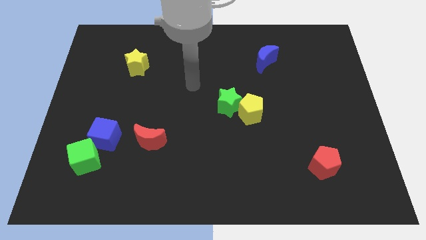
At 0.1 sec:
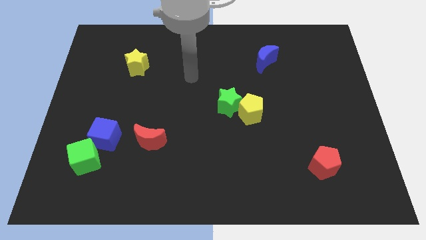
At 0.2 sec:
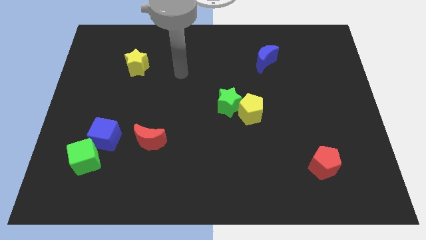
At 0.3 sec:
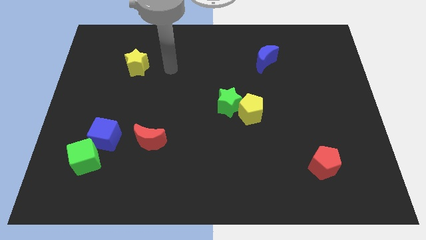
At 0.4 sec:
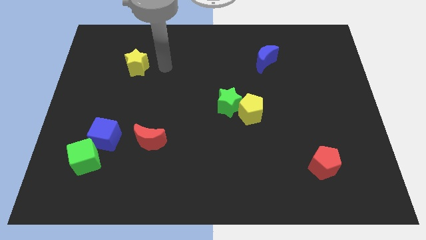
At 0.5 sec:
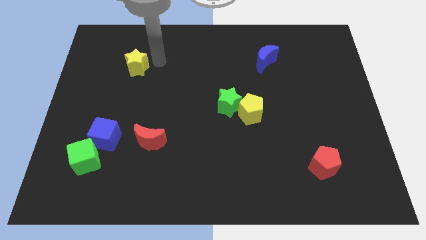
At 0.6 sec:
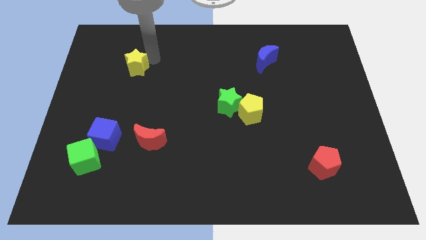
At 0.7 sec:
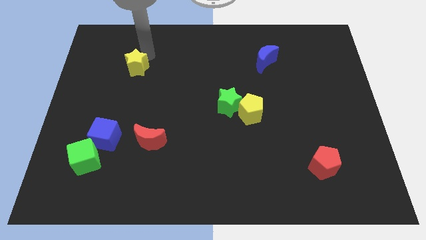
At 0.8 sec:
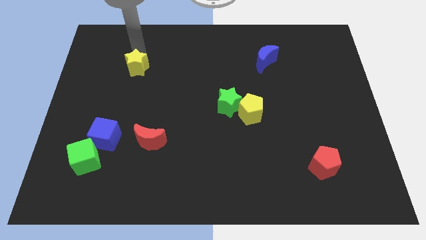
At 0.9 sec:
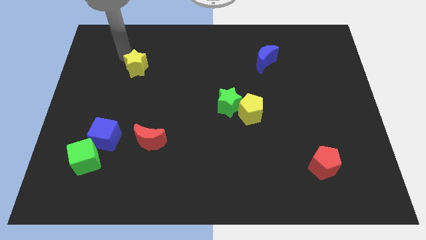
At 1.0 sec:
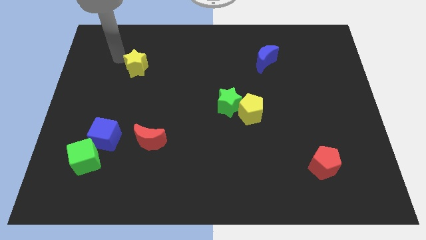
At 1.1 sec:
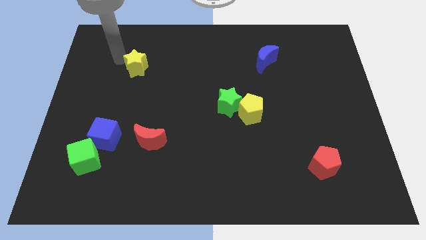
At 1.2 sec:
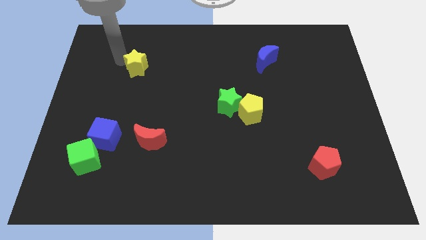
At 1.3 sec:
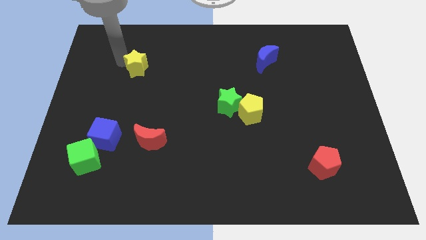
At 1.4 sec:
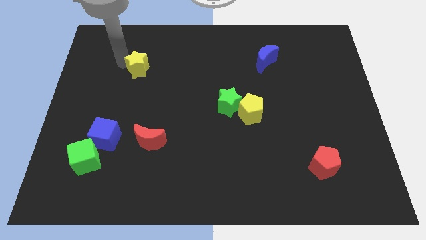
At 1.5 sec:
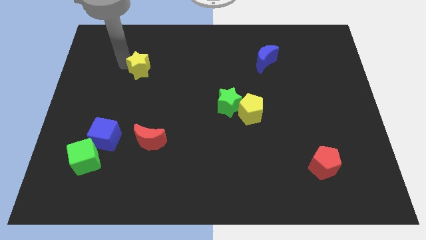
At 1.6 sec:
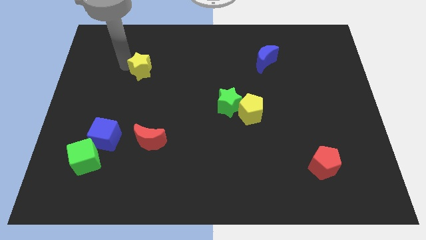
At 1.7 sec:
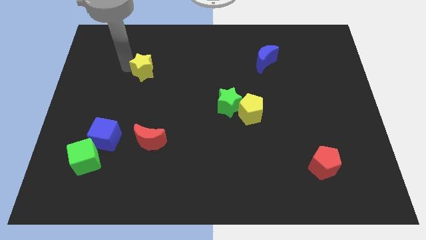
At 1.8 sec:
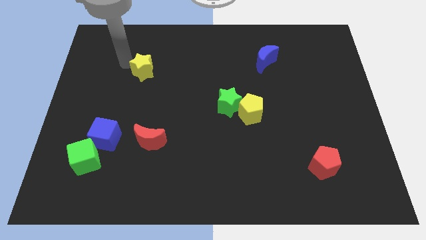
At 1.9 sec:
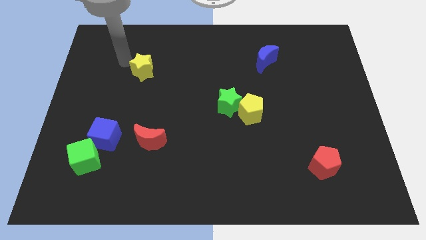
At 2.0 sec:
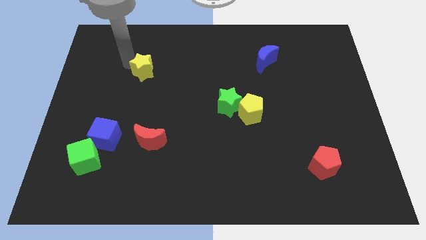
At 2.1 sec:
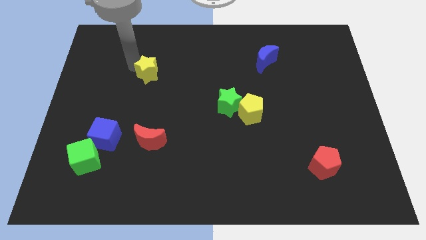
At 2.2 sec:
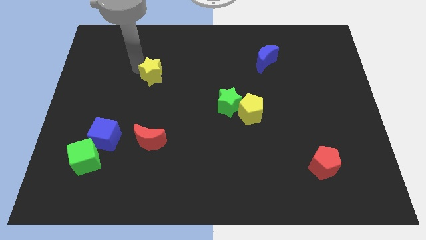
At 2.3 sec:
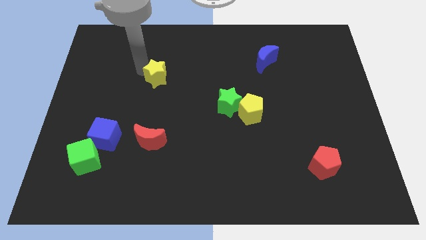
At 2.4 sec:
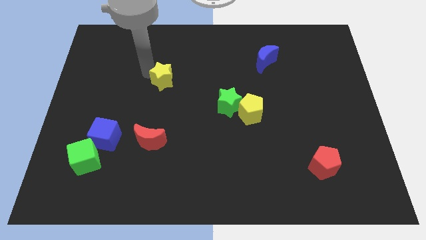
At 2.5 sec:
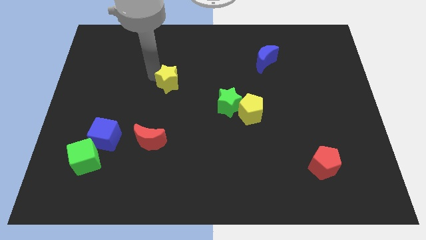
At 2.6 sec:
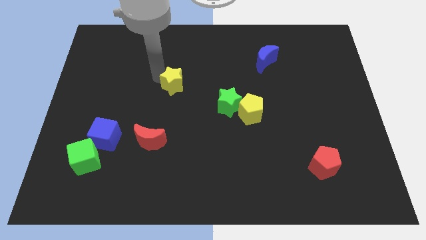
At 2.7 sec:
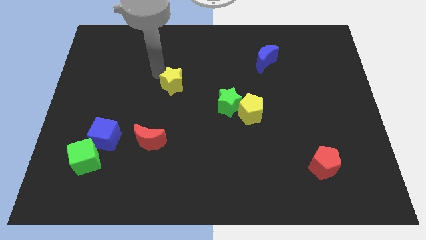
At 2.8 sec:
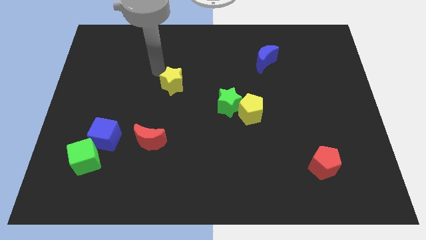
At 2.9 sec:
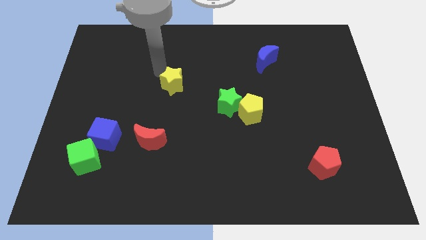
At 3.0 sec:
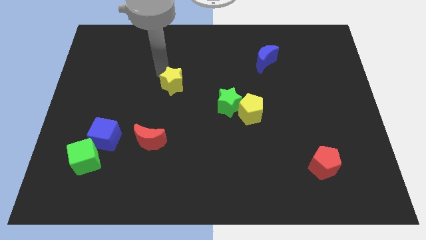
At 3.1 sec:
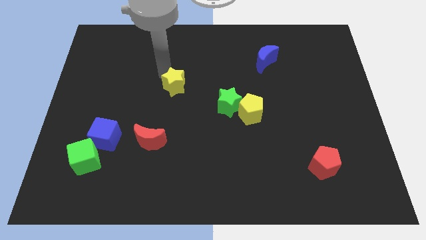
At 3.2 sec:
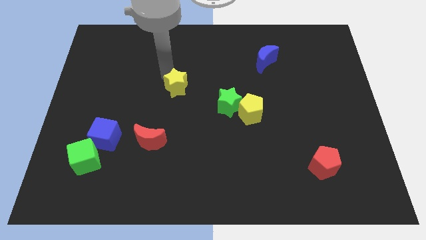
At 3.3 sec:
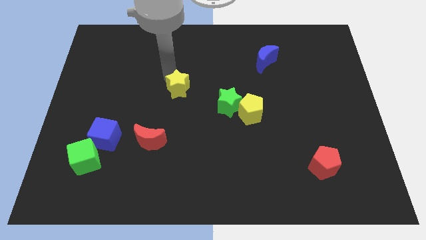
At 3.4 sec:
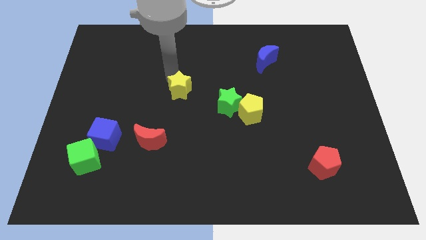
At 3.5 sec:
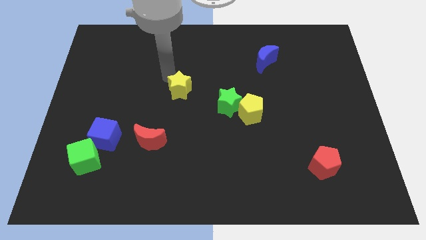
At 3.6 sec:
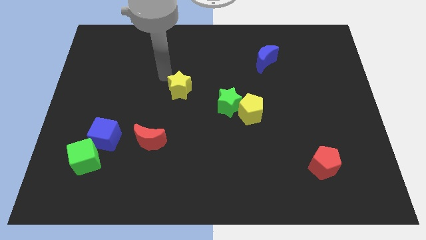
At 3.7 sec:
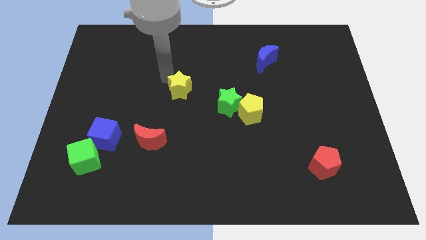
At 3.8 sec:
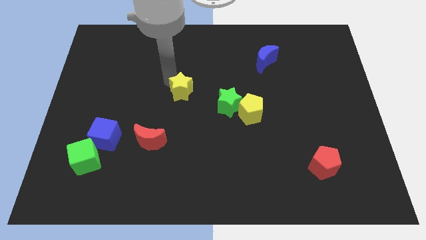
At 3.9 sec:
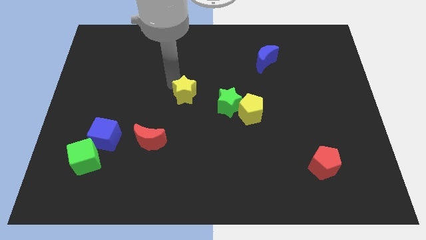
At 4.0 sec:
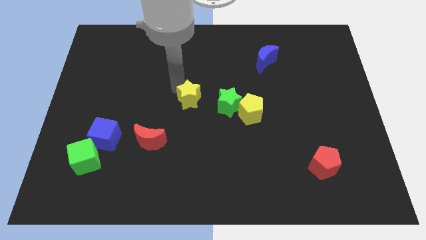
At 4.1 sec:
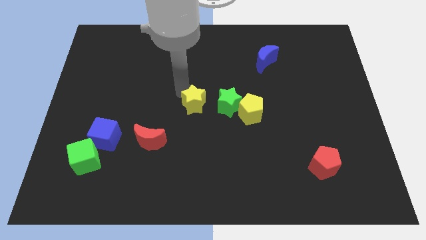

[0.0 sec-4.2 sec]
slide the yellow star just left of the yellow pentagon

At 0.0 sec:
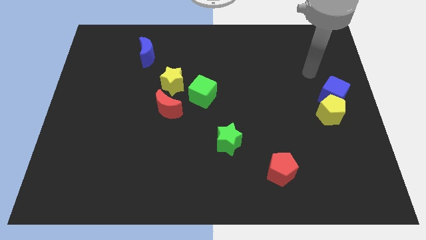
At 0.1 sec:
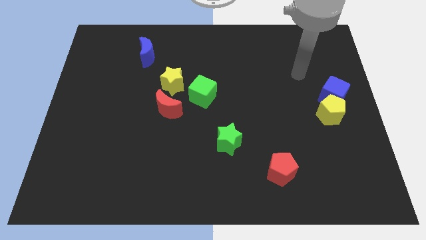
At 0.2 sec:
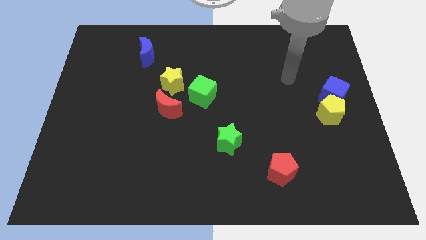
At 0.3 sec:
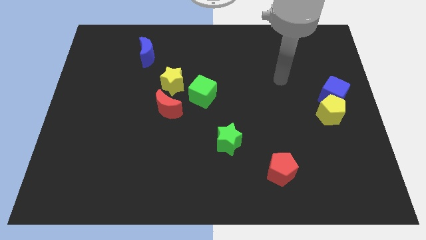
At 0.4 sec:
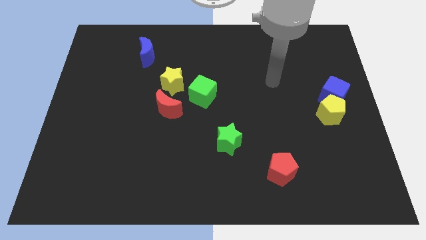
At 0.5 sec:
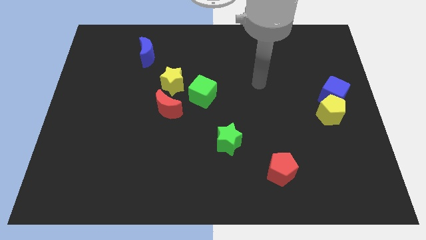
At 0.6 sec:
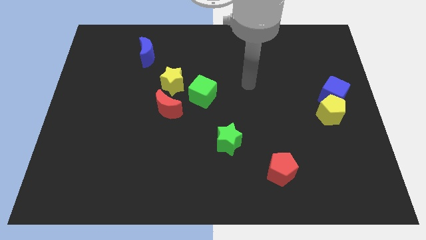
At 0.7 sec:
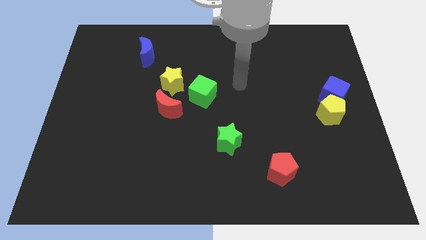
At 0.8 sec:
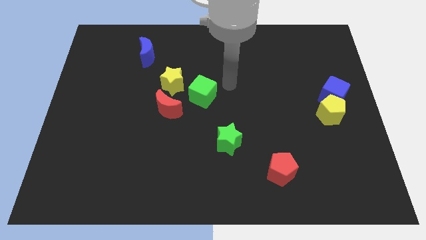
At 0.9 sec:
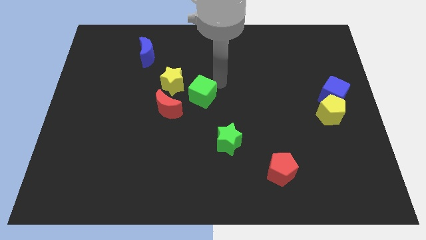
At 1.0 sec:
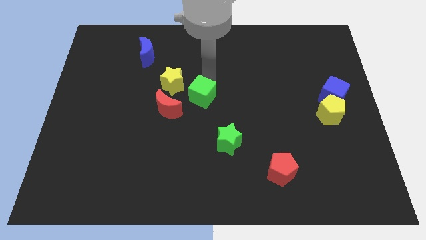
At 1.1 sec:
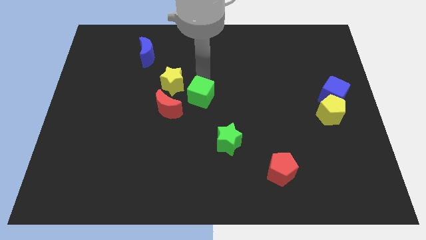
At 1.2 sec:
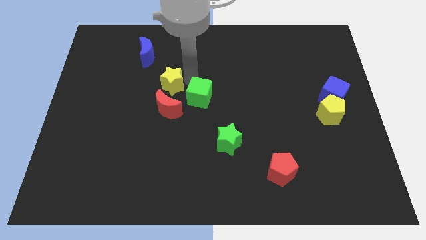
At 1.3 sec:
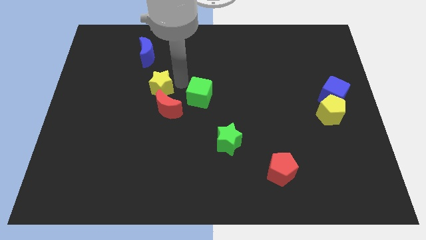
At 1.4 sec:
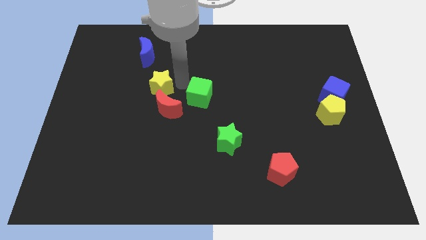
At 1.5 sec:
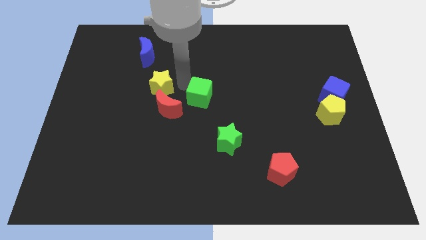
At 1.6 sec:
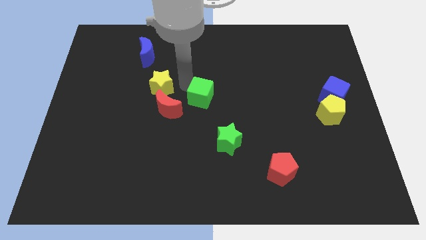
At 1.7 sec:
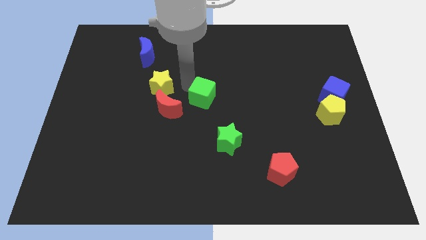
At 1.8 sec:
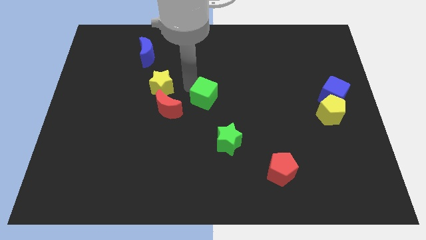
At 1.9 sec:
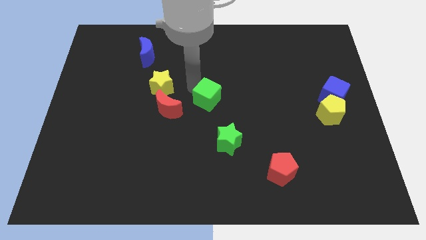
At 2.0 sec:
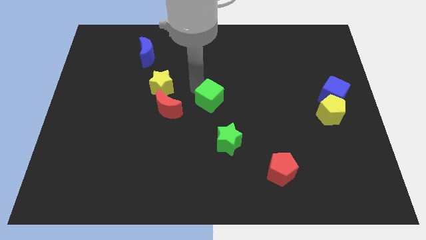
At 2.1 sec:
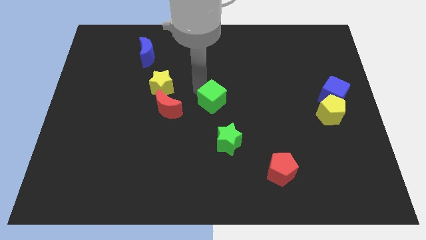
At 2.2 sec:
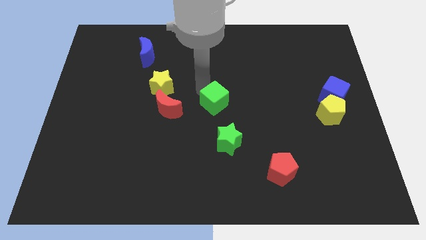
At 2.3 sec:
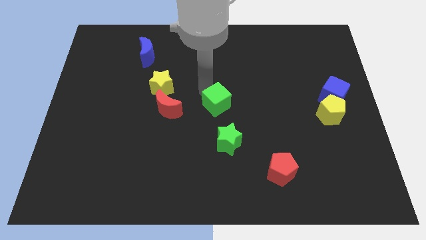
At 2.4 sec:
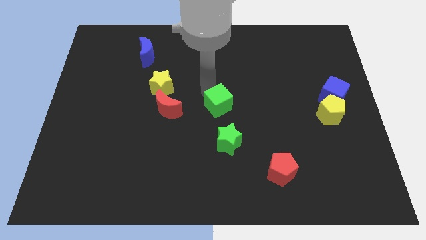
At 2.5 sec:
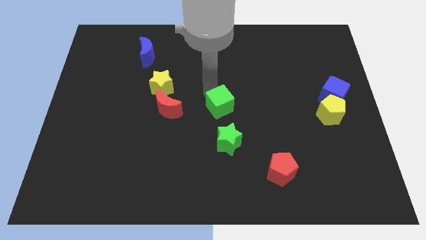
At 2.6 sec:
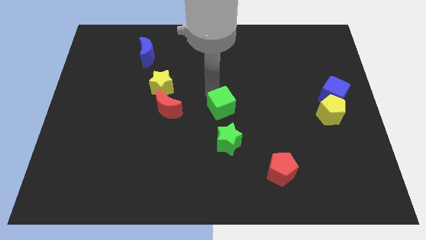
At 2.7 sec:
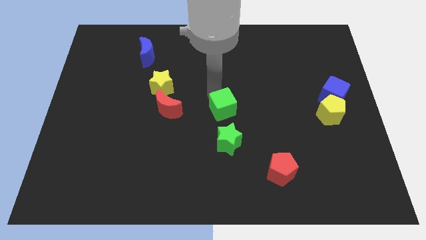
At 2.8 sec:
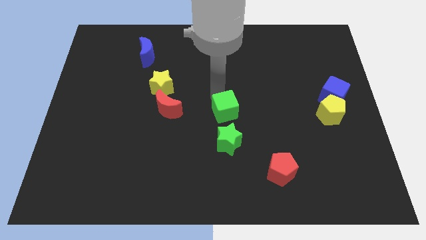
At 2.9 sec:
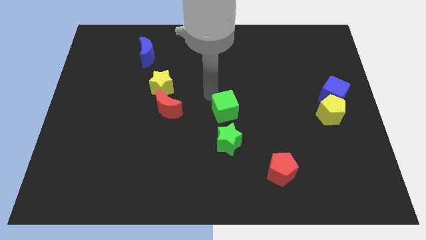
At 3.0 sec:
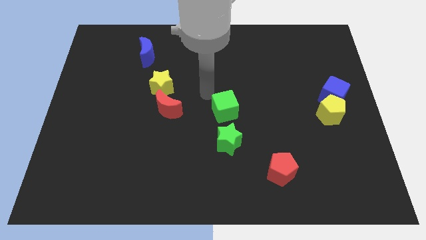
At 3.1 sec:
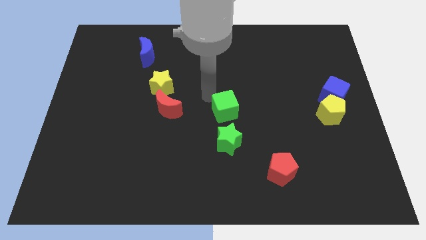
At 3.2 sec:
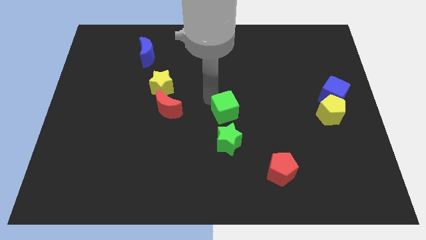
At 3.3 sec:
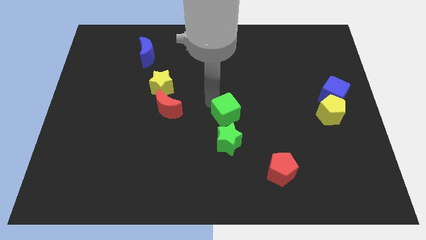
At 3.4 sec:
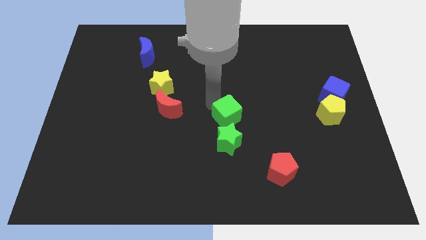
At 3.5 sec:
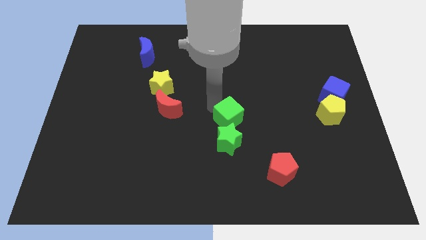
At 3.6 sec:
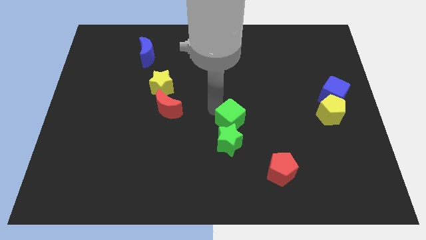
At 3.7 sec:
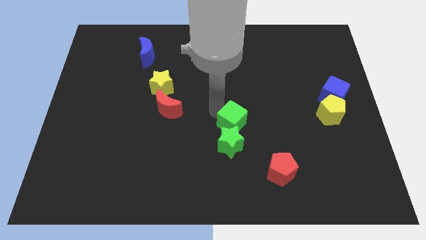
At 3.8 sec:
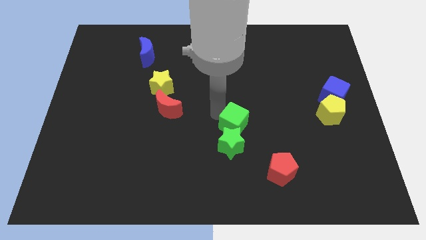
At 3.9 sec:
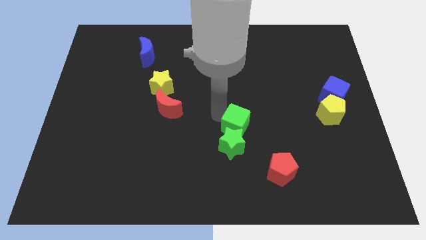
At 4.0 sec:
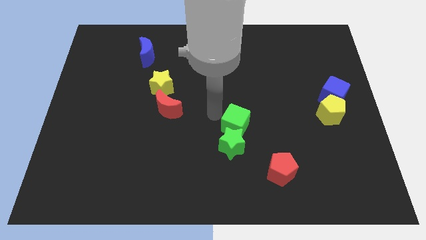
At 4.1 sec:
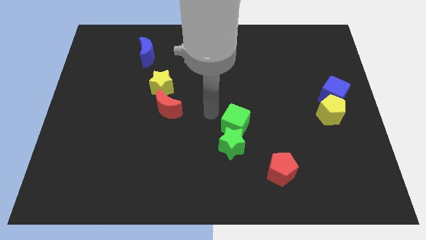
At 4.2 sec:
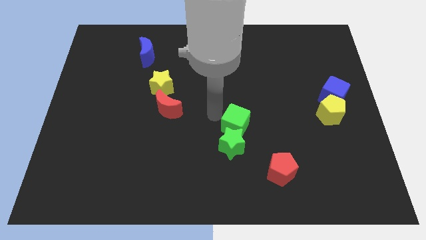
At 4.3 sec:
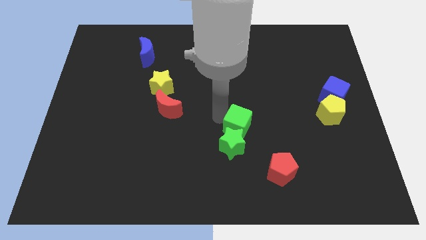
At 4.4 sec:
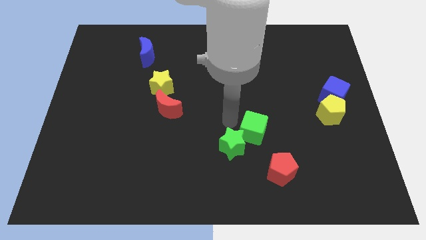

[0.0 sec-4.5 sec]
put the green cube to the right of the green star
